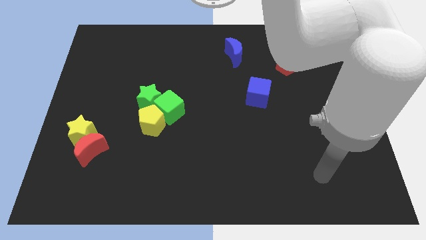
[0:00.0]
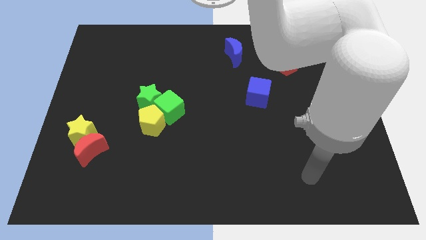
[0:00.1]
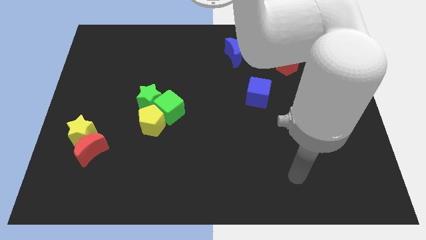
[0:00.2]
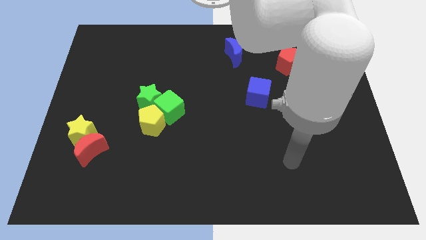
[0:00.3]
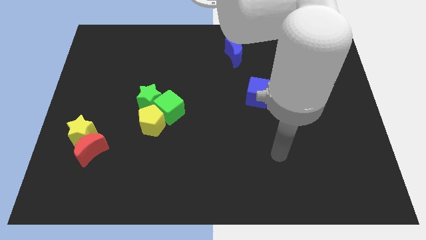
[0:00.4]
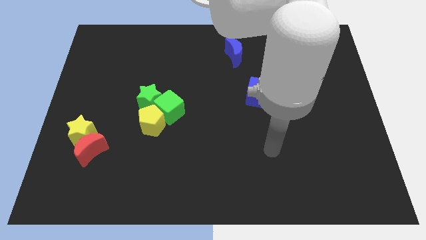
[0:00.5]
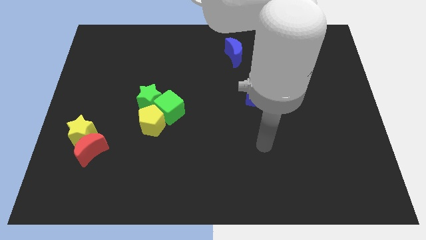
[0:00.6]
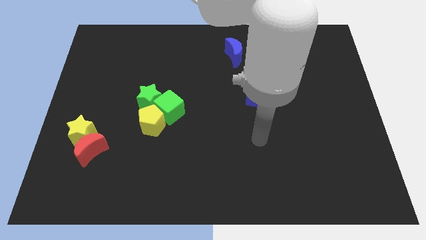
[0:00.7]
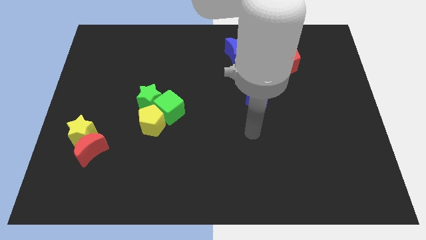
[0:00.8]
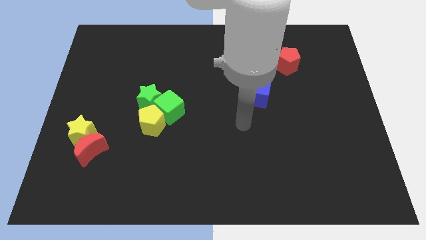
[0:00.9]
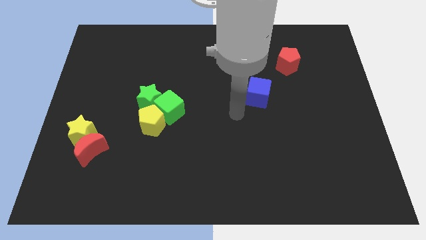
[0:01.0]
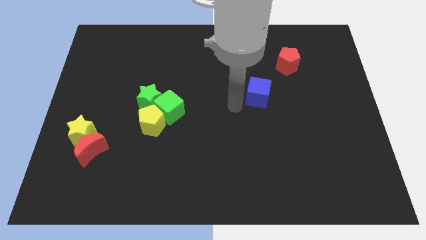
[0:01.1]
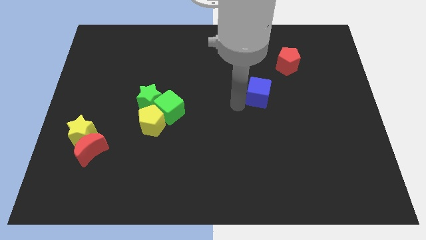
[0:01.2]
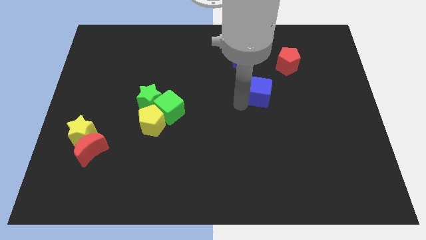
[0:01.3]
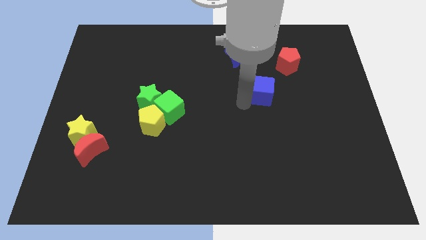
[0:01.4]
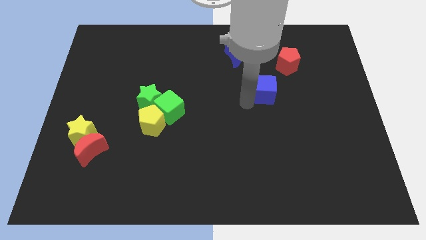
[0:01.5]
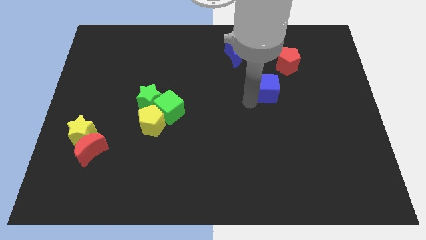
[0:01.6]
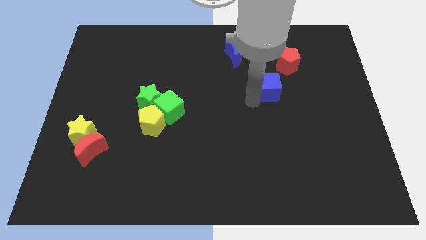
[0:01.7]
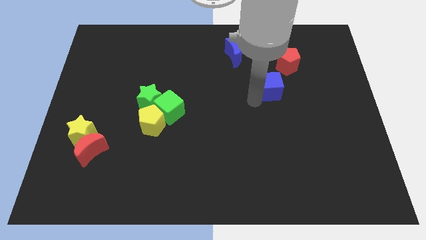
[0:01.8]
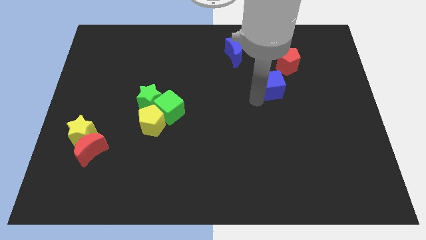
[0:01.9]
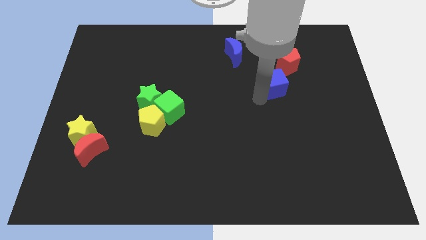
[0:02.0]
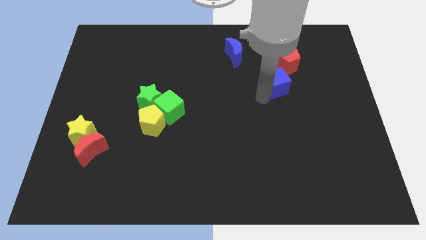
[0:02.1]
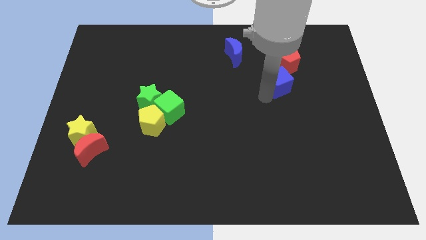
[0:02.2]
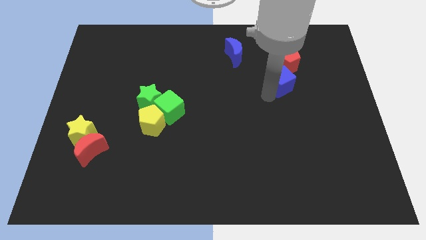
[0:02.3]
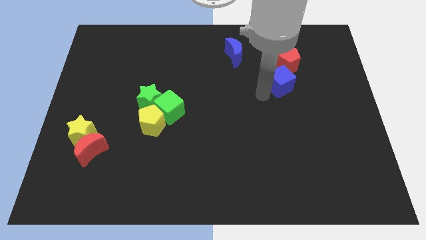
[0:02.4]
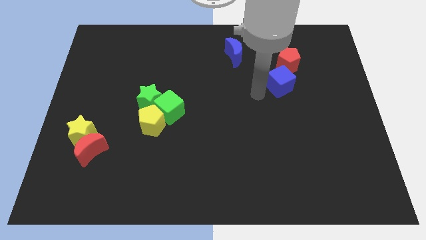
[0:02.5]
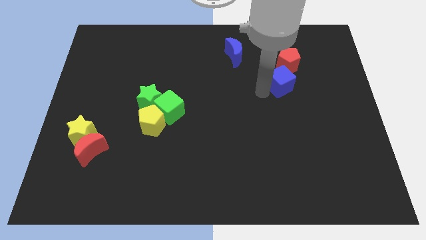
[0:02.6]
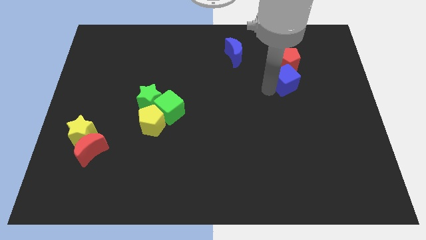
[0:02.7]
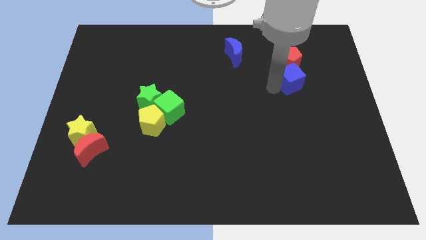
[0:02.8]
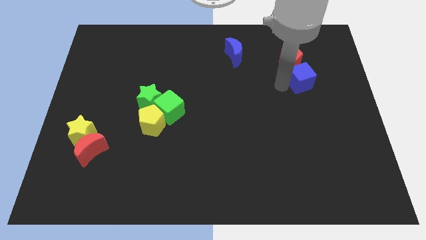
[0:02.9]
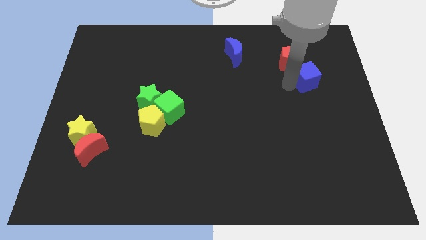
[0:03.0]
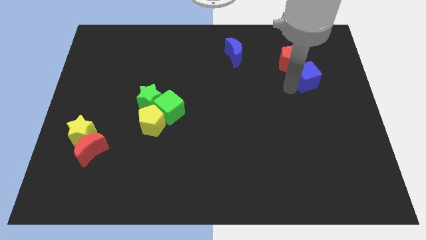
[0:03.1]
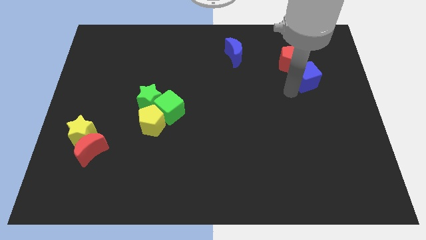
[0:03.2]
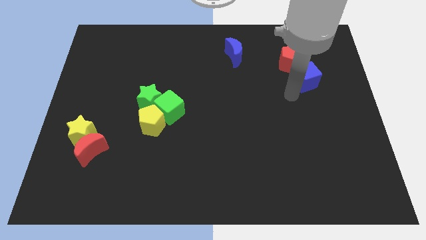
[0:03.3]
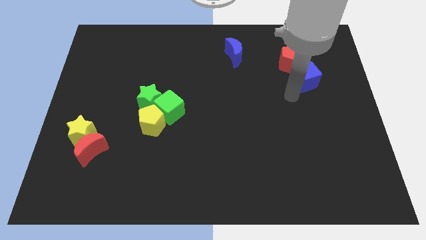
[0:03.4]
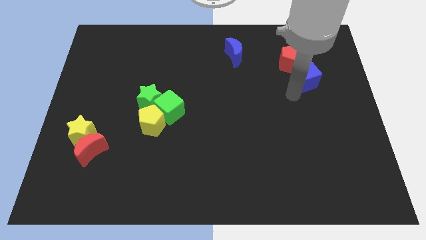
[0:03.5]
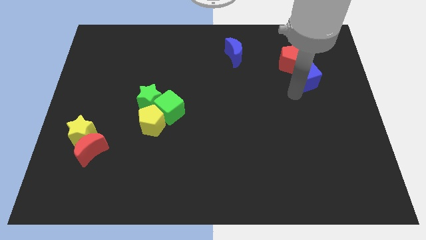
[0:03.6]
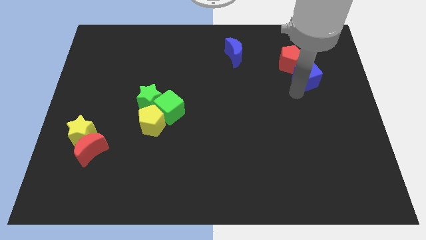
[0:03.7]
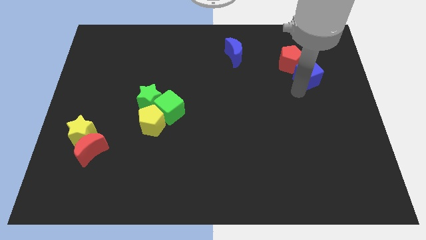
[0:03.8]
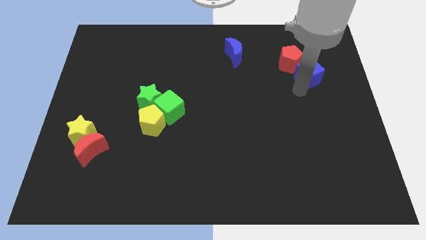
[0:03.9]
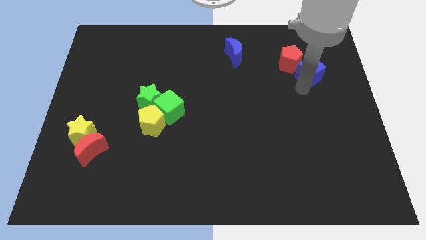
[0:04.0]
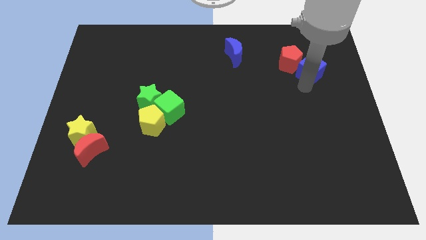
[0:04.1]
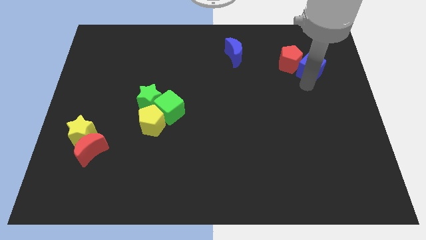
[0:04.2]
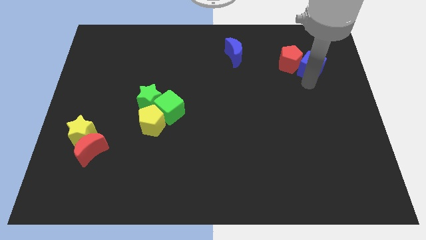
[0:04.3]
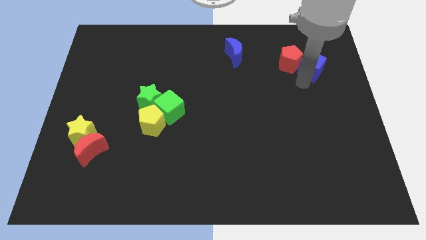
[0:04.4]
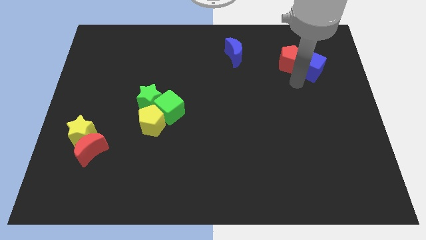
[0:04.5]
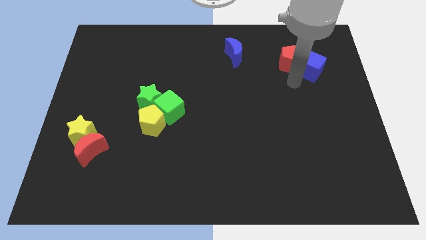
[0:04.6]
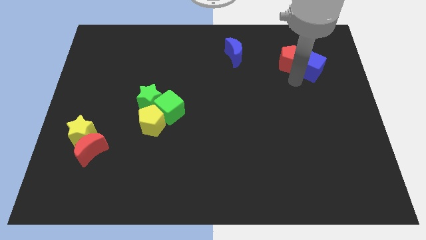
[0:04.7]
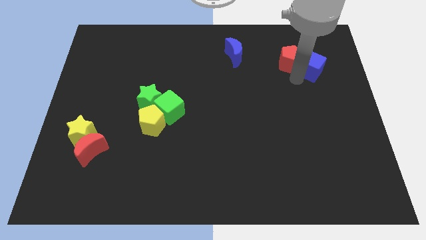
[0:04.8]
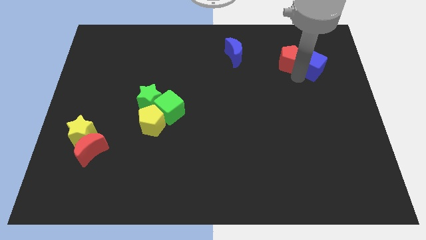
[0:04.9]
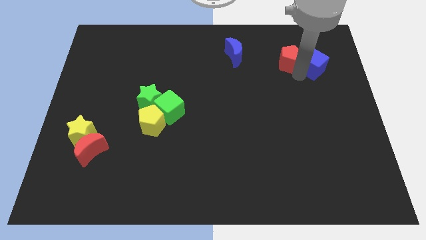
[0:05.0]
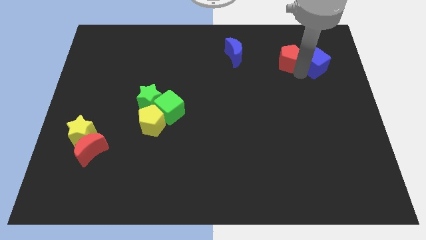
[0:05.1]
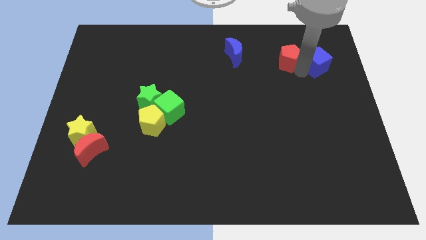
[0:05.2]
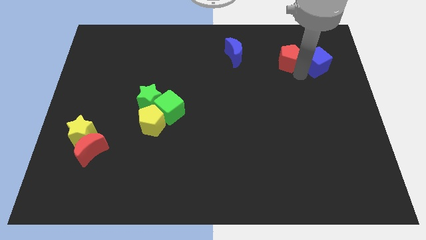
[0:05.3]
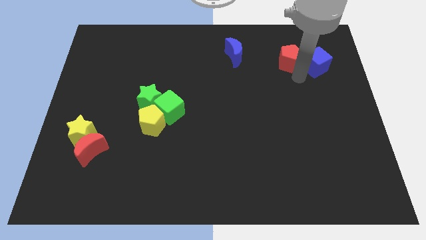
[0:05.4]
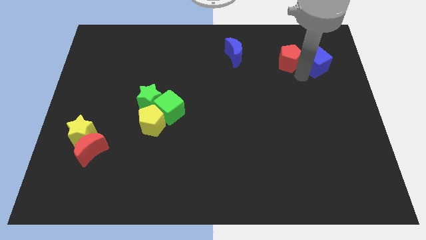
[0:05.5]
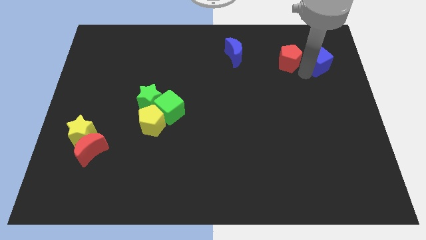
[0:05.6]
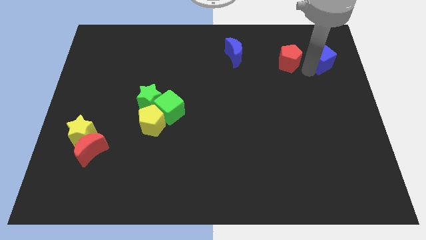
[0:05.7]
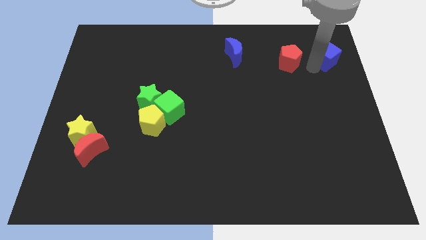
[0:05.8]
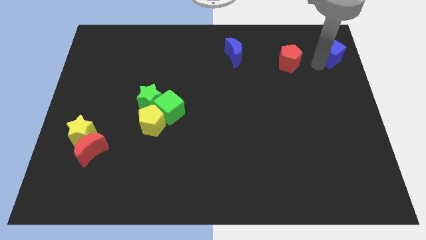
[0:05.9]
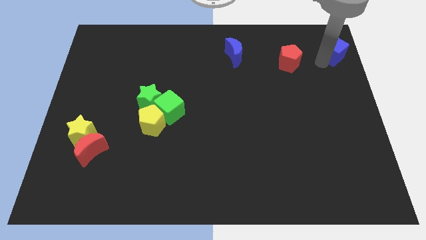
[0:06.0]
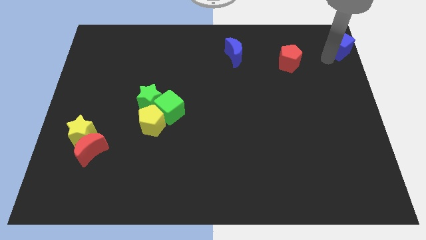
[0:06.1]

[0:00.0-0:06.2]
slide the blue cube to the top right corner

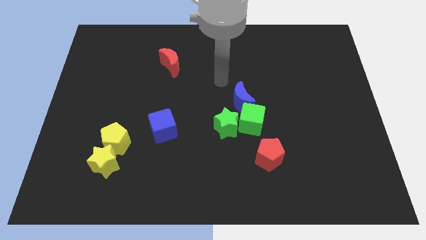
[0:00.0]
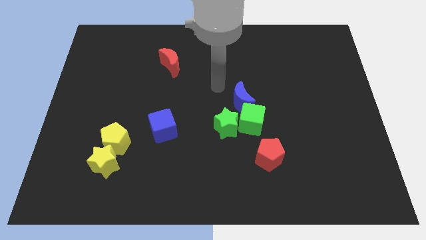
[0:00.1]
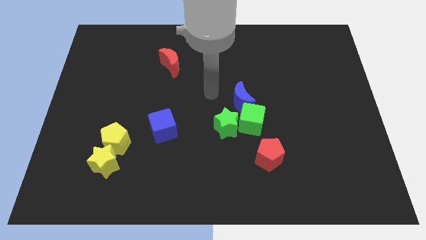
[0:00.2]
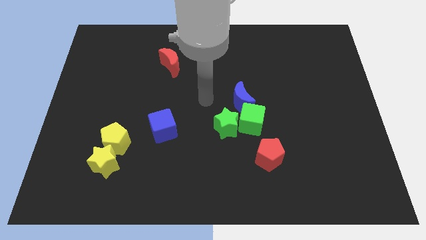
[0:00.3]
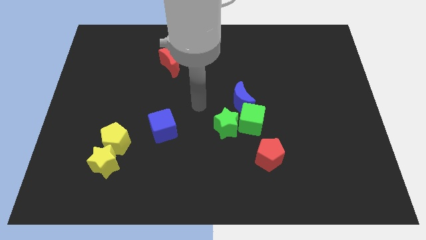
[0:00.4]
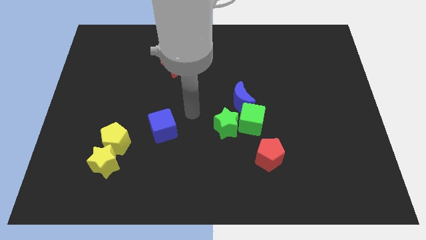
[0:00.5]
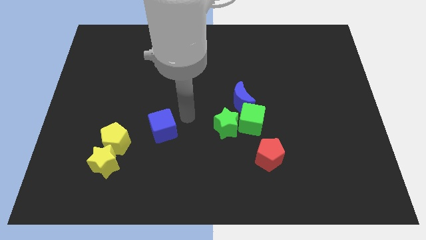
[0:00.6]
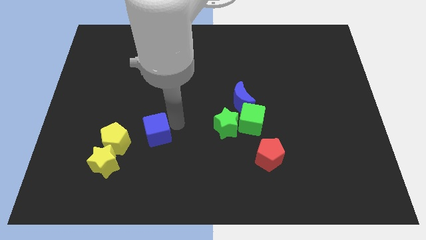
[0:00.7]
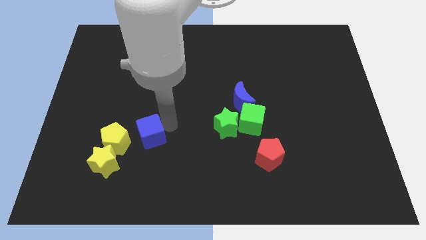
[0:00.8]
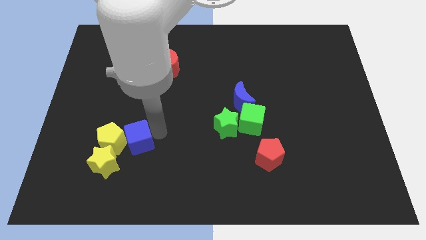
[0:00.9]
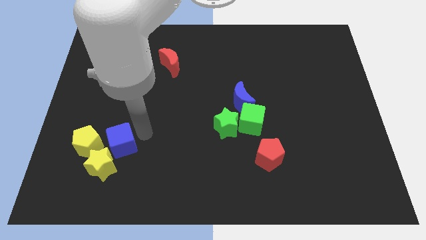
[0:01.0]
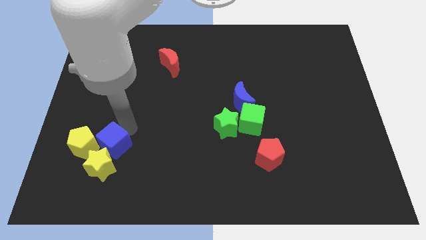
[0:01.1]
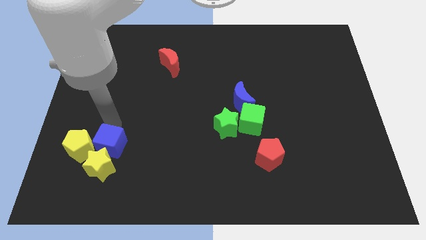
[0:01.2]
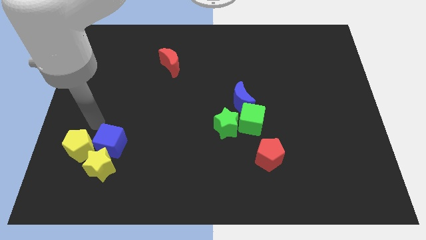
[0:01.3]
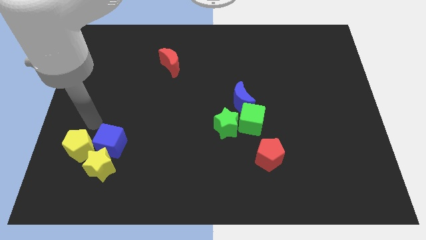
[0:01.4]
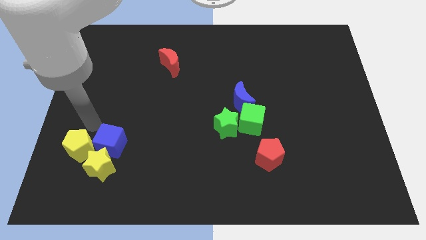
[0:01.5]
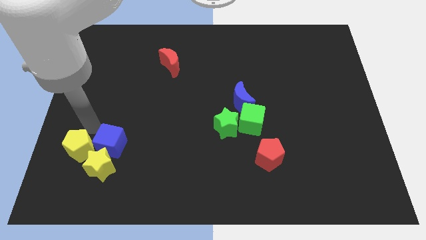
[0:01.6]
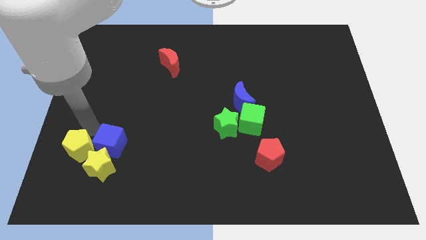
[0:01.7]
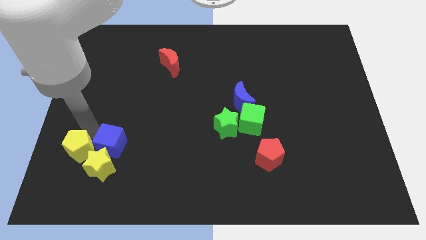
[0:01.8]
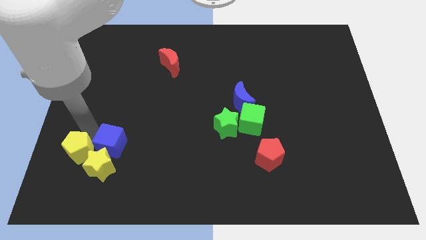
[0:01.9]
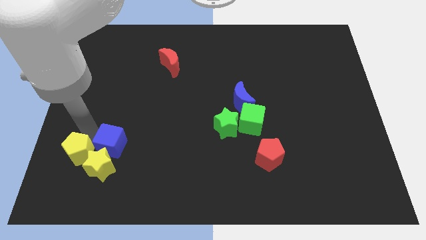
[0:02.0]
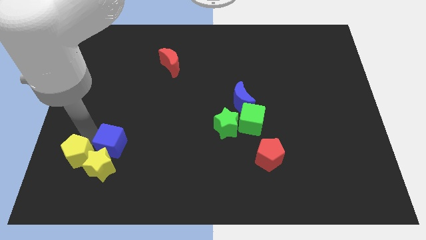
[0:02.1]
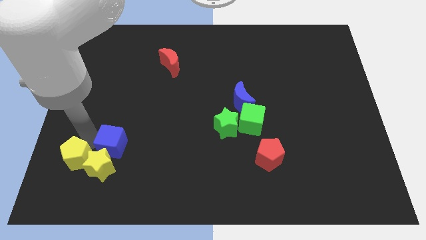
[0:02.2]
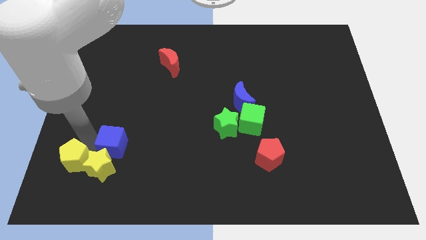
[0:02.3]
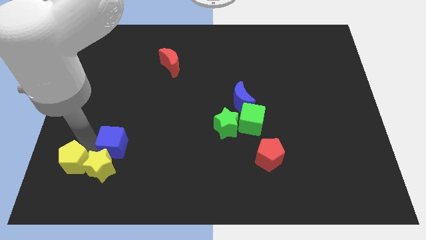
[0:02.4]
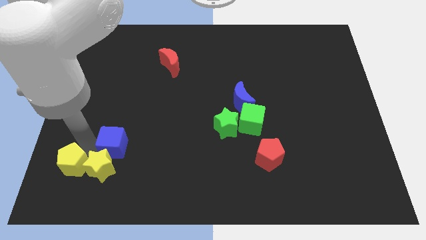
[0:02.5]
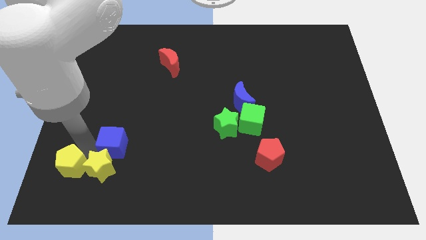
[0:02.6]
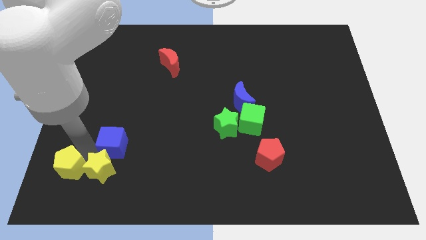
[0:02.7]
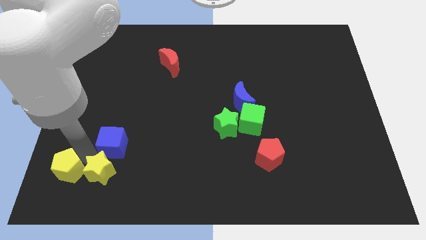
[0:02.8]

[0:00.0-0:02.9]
move the yellow pentagon to the bottom left of the board
